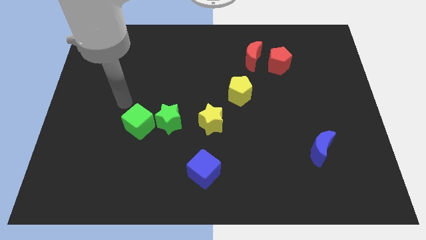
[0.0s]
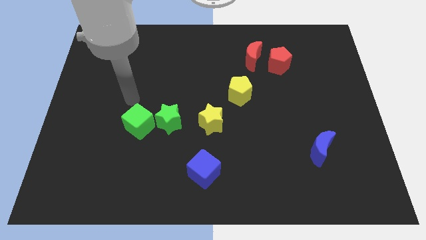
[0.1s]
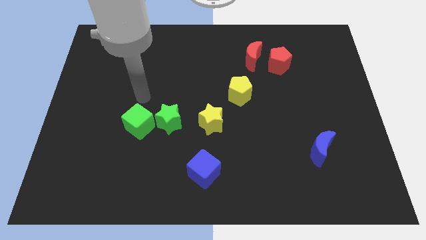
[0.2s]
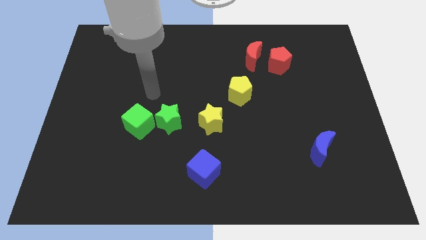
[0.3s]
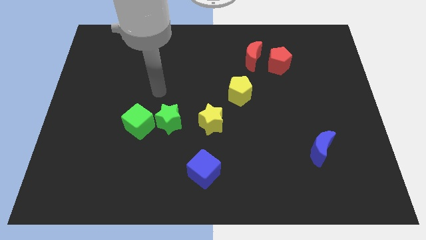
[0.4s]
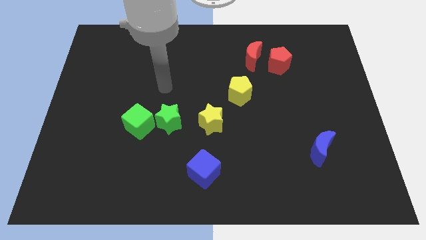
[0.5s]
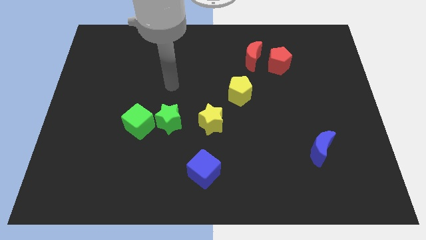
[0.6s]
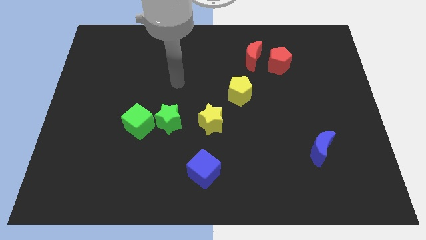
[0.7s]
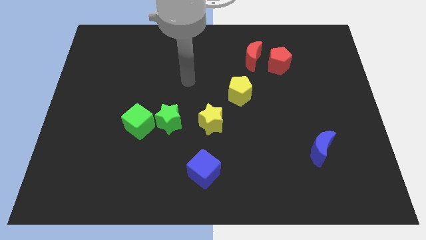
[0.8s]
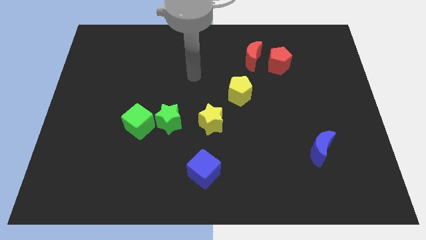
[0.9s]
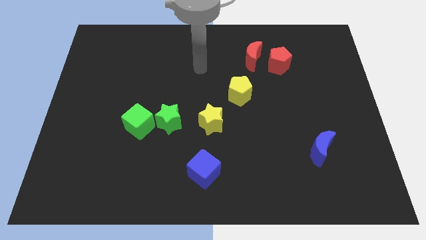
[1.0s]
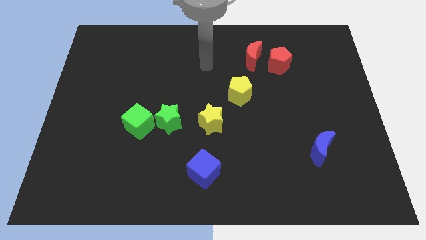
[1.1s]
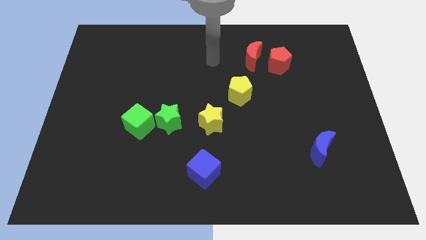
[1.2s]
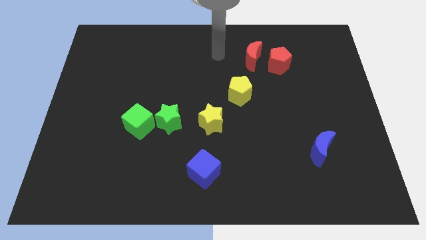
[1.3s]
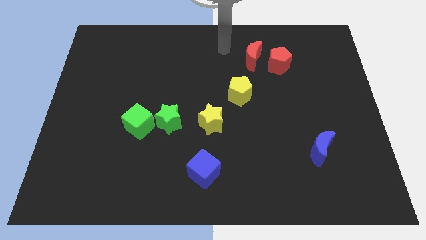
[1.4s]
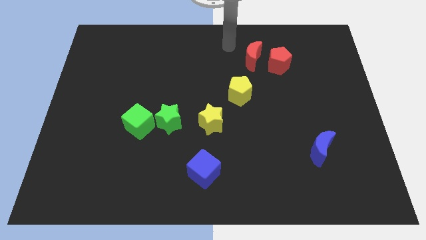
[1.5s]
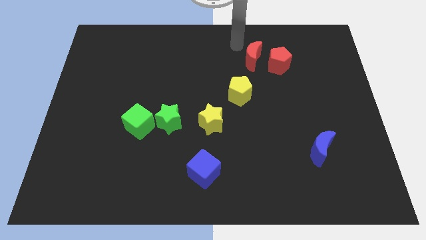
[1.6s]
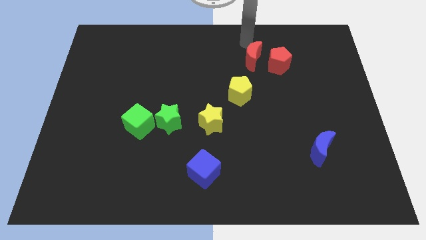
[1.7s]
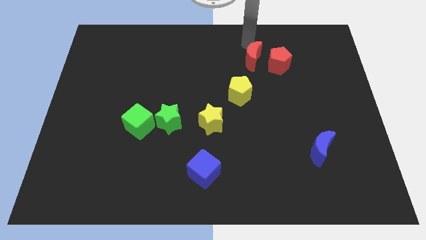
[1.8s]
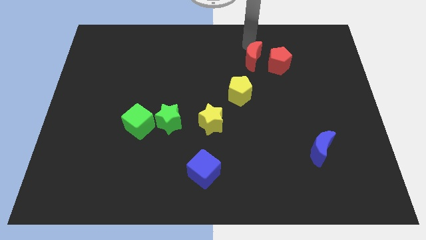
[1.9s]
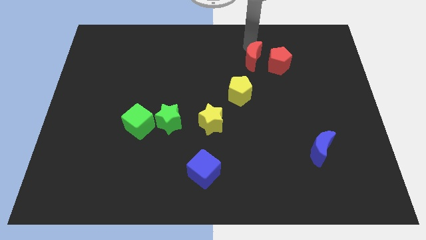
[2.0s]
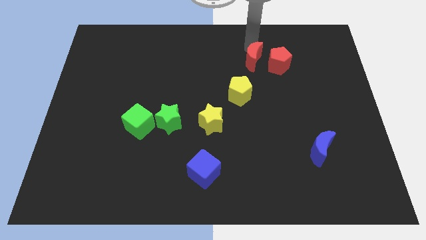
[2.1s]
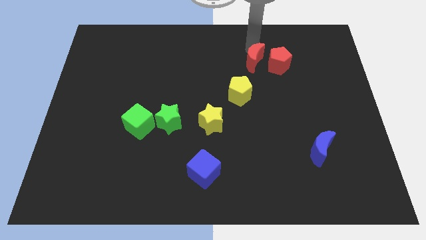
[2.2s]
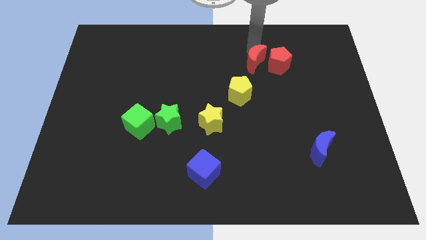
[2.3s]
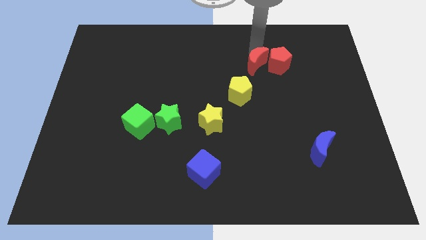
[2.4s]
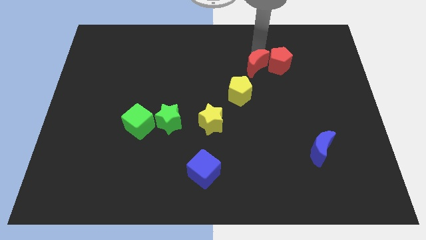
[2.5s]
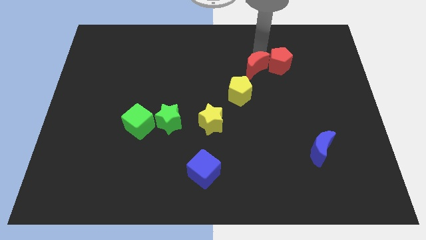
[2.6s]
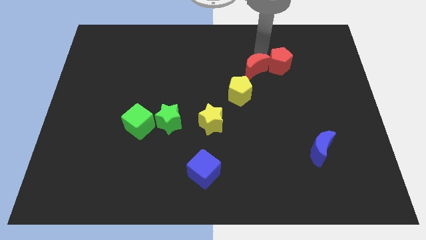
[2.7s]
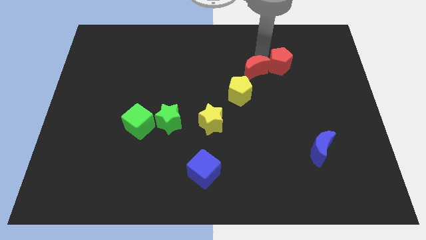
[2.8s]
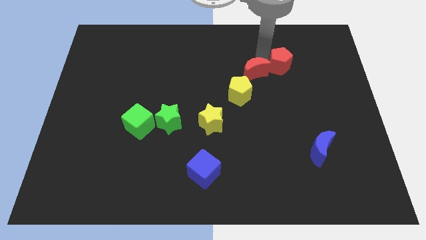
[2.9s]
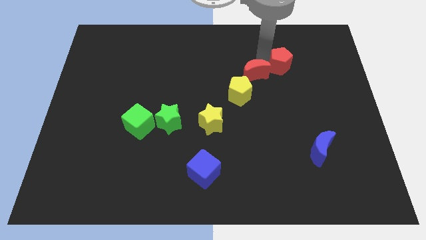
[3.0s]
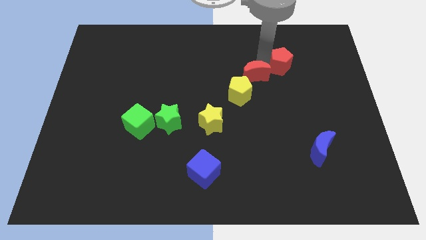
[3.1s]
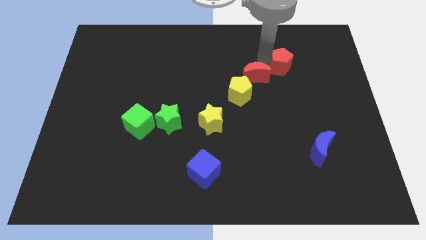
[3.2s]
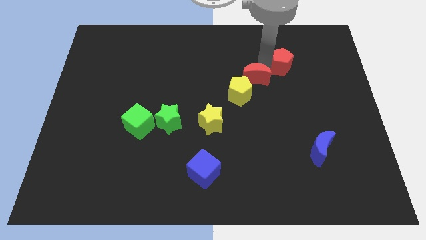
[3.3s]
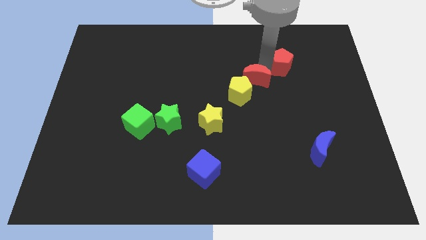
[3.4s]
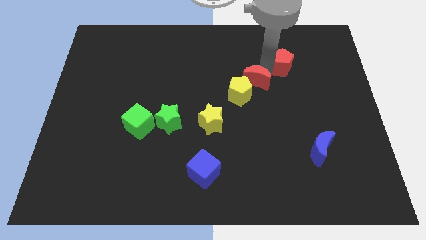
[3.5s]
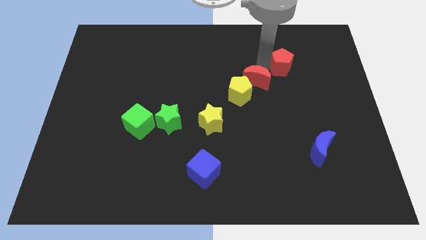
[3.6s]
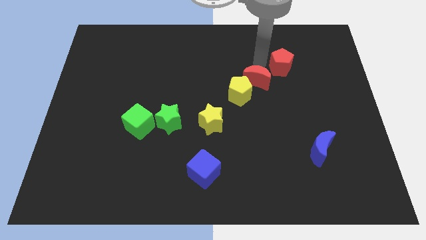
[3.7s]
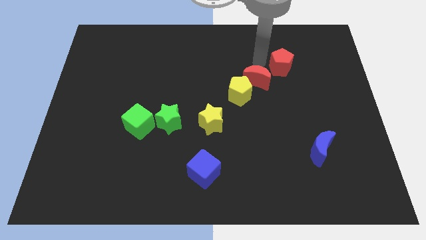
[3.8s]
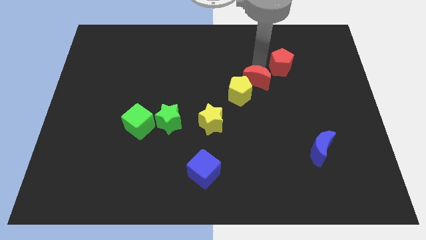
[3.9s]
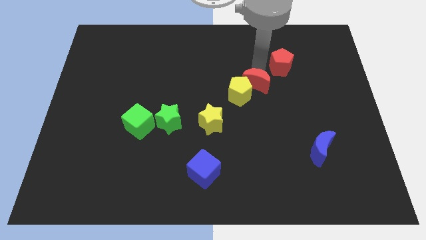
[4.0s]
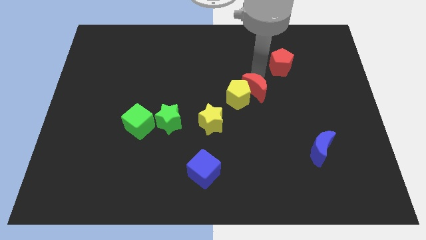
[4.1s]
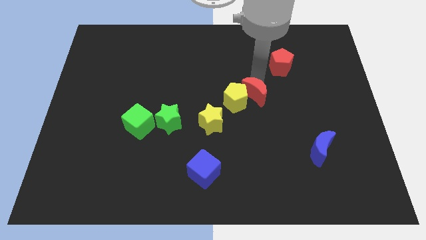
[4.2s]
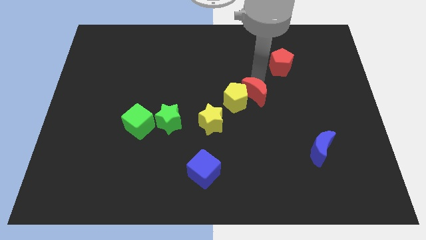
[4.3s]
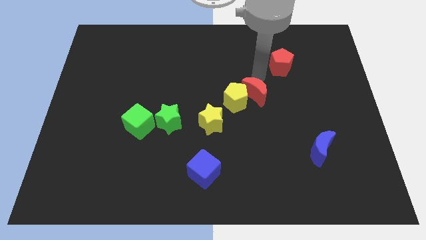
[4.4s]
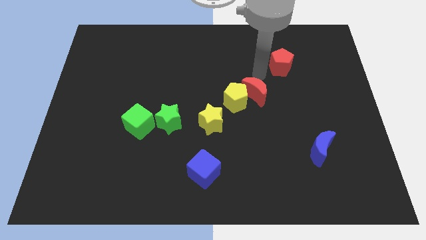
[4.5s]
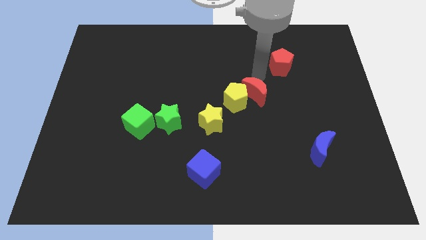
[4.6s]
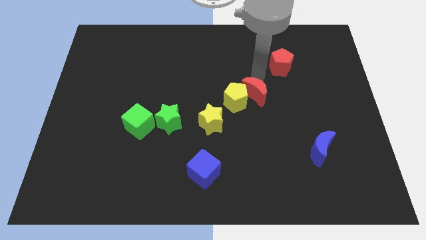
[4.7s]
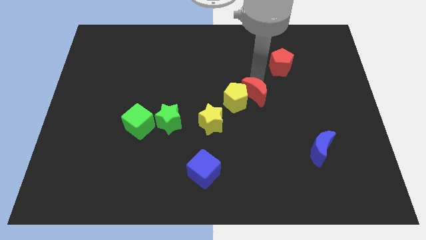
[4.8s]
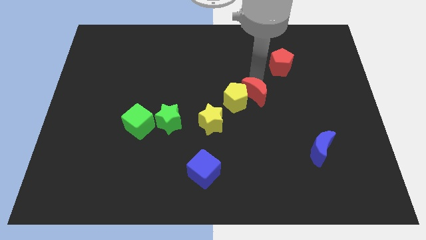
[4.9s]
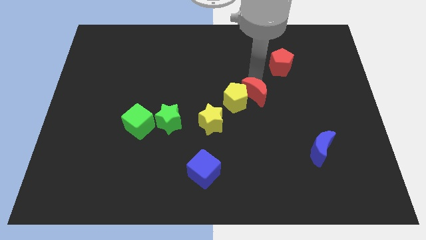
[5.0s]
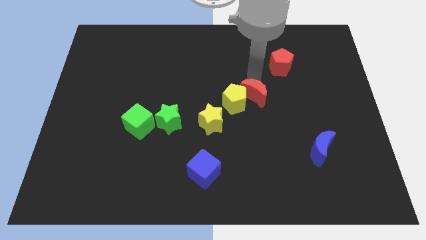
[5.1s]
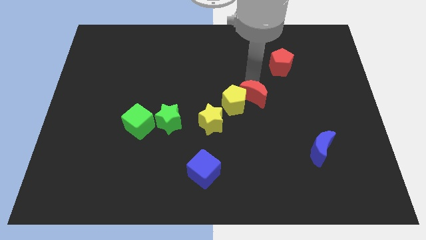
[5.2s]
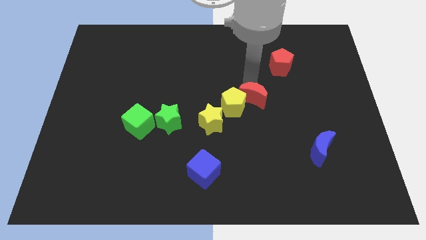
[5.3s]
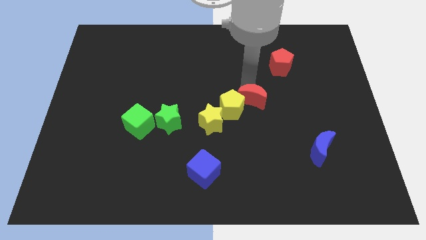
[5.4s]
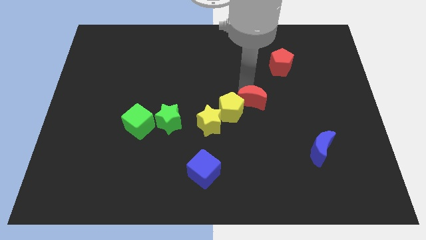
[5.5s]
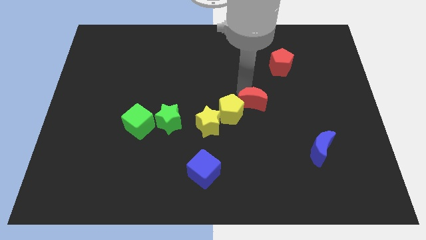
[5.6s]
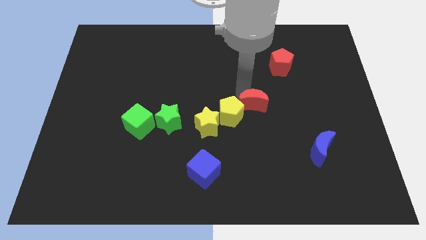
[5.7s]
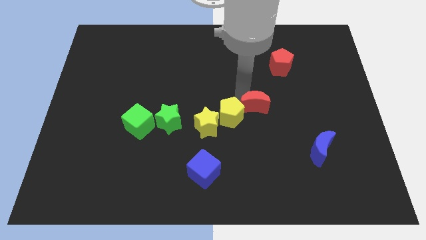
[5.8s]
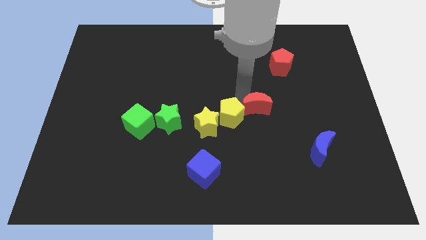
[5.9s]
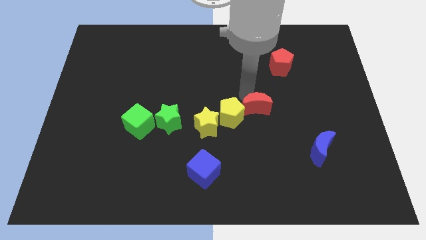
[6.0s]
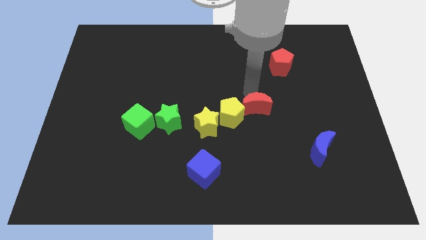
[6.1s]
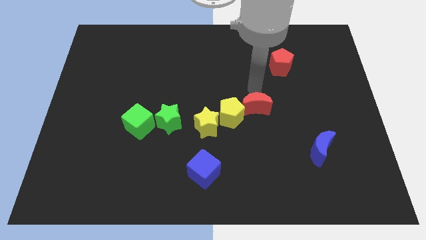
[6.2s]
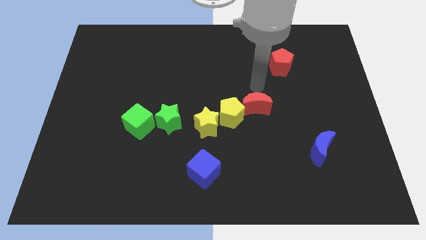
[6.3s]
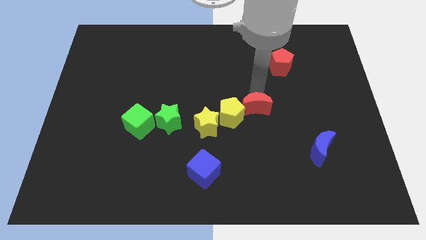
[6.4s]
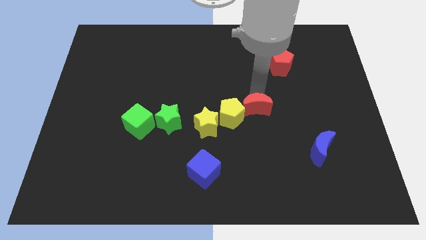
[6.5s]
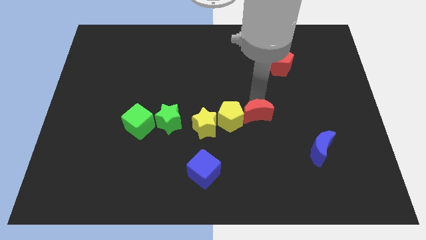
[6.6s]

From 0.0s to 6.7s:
push the red moon just right of the yellow star

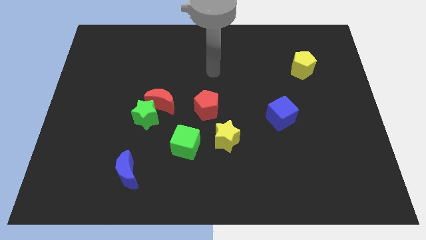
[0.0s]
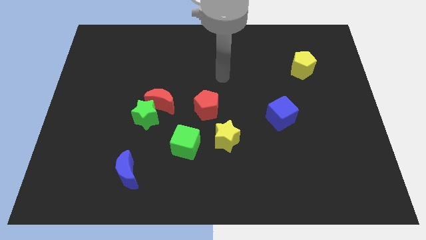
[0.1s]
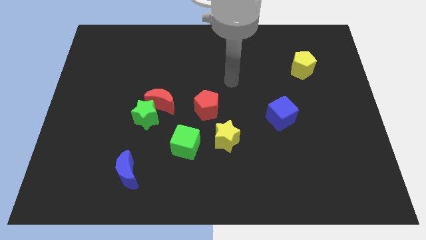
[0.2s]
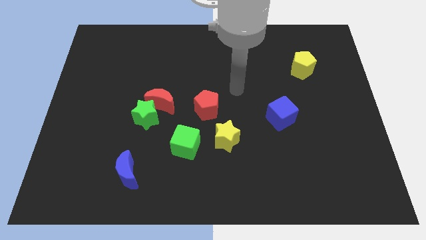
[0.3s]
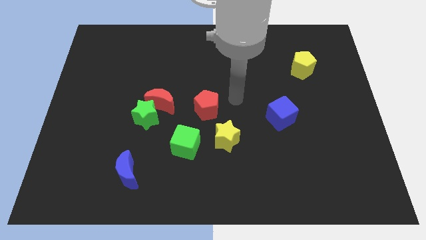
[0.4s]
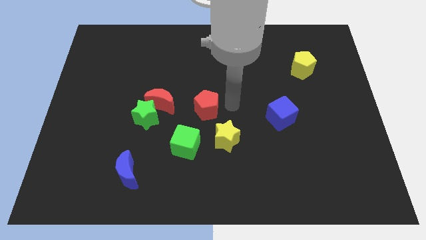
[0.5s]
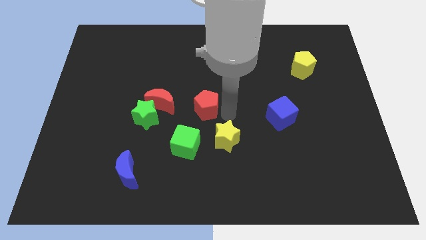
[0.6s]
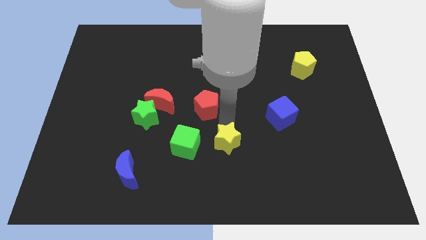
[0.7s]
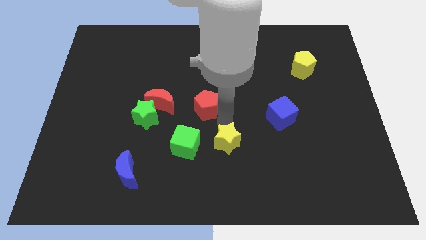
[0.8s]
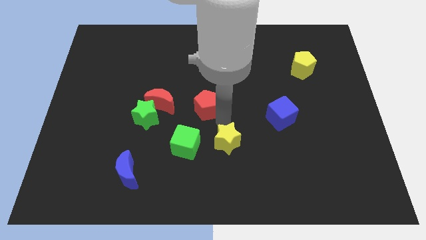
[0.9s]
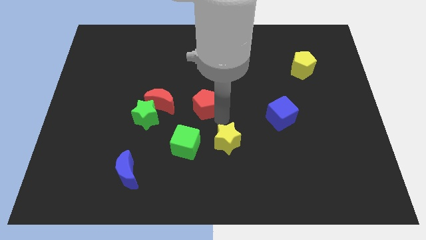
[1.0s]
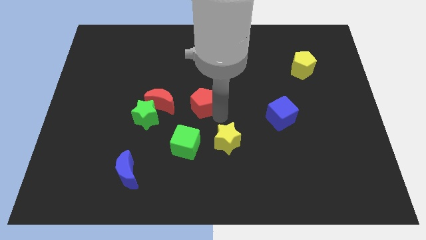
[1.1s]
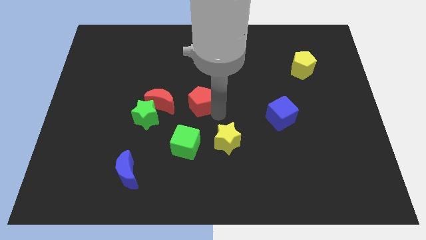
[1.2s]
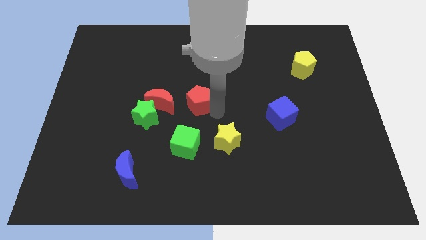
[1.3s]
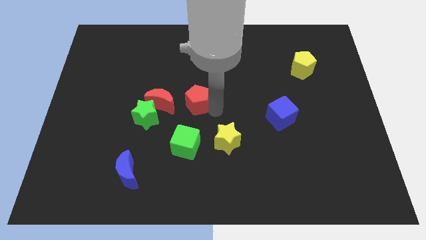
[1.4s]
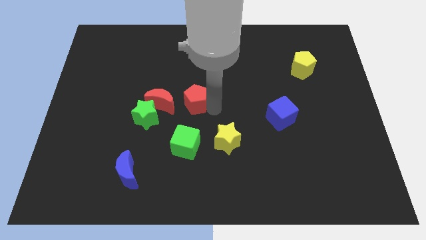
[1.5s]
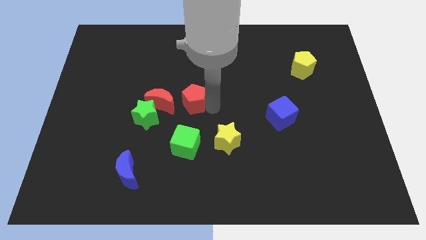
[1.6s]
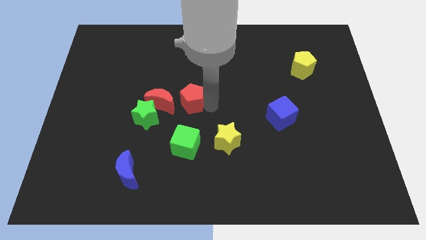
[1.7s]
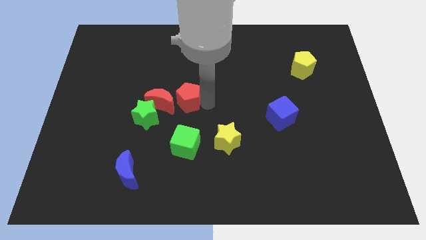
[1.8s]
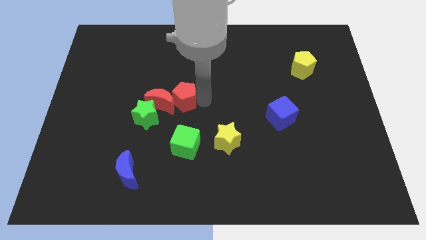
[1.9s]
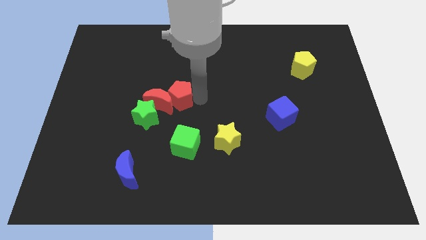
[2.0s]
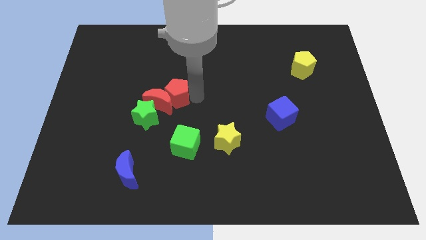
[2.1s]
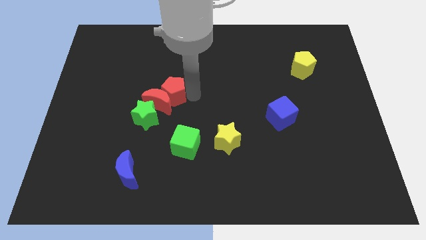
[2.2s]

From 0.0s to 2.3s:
push the red pentagon to the top of the red moon
